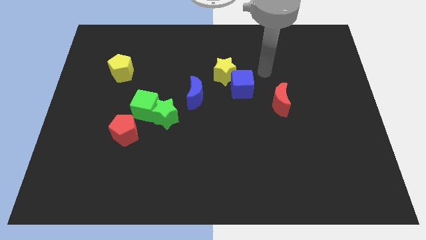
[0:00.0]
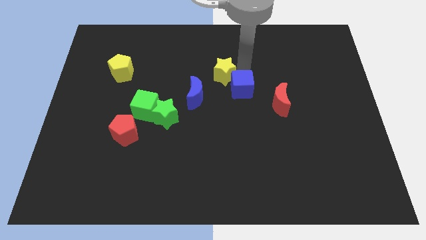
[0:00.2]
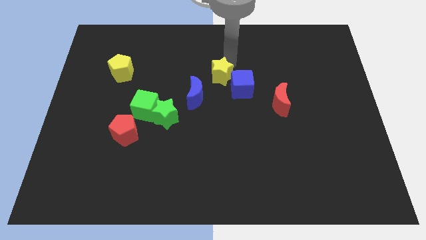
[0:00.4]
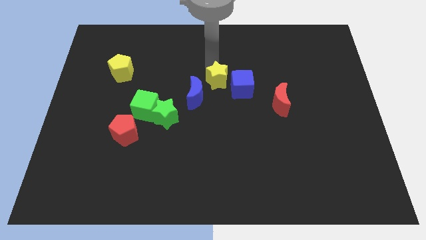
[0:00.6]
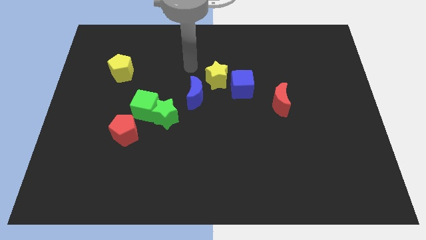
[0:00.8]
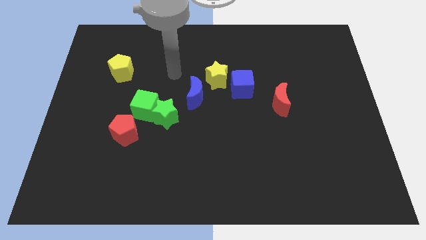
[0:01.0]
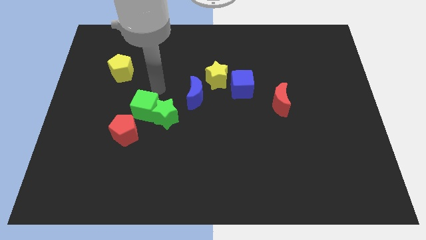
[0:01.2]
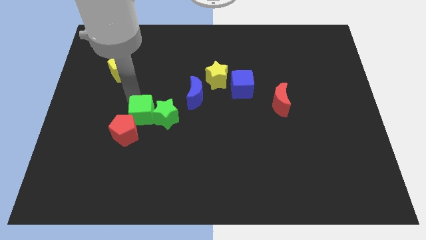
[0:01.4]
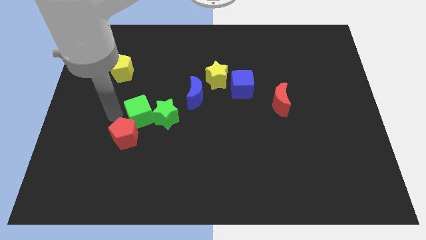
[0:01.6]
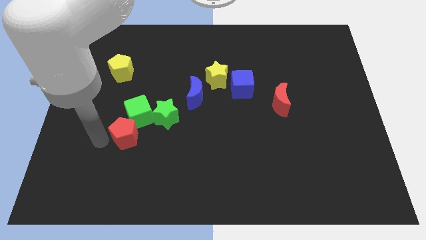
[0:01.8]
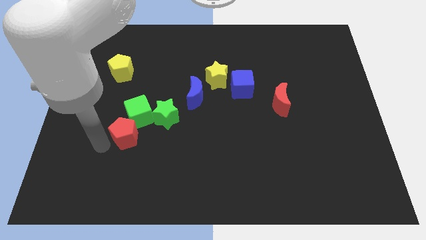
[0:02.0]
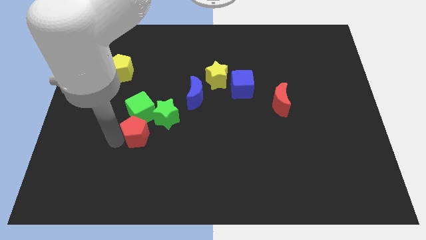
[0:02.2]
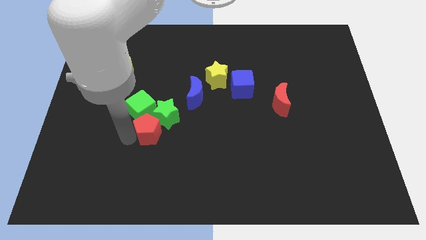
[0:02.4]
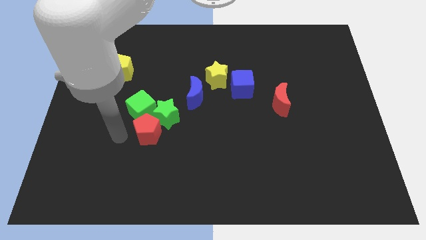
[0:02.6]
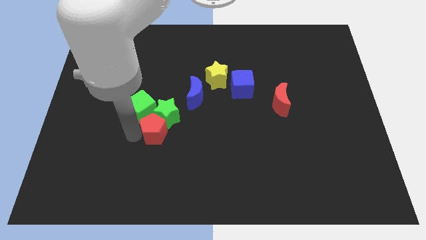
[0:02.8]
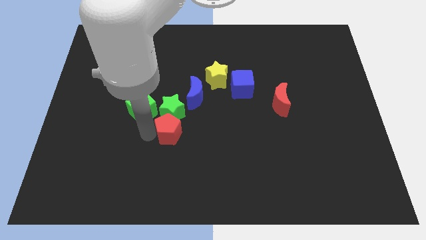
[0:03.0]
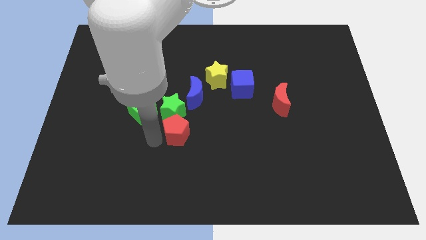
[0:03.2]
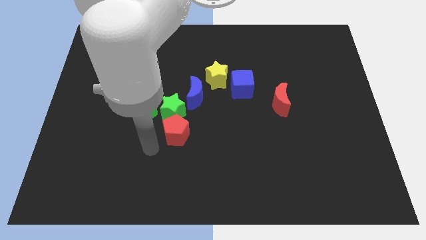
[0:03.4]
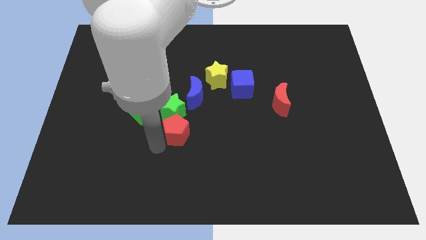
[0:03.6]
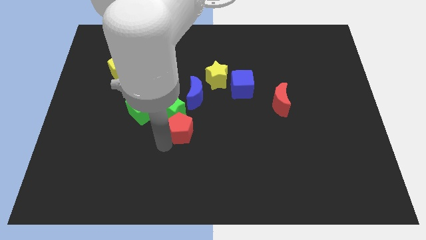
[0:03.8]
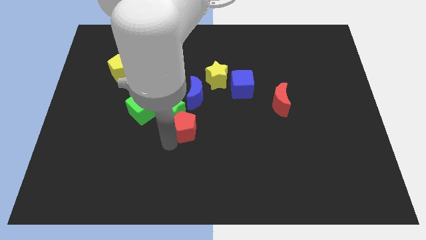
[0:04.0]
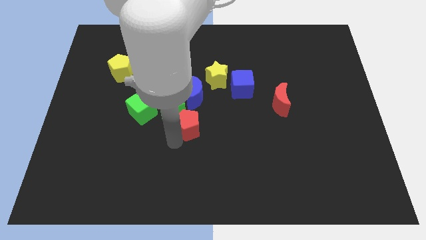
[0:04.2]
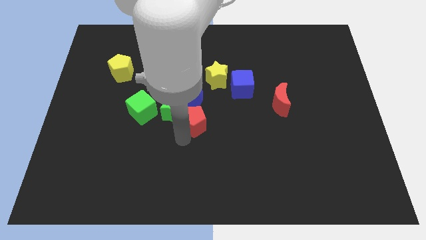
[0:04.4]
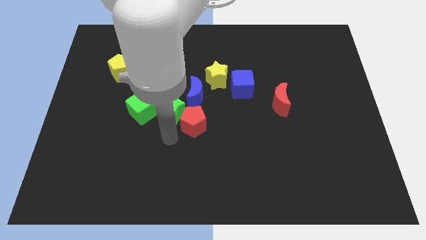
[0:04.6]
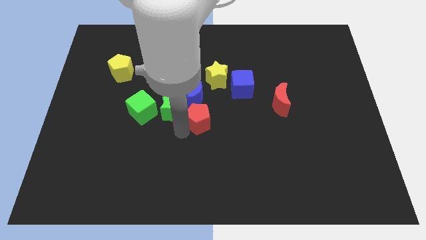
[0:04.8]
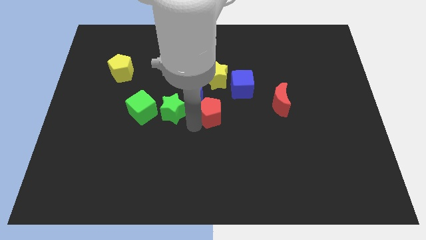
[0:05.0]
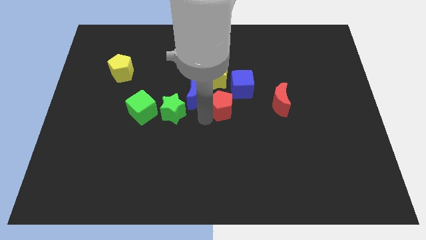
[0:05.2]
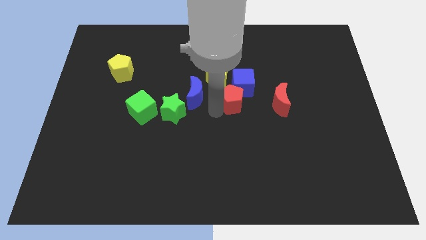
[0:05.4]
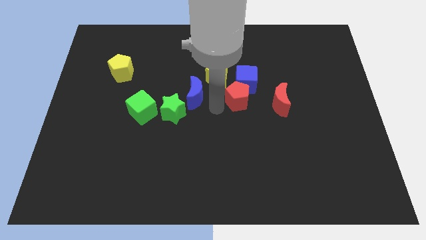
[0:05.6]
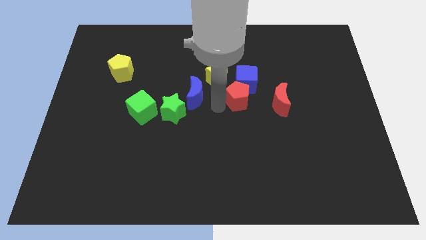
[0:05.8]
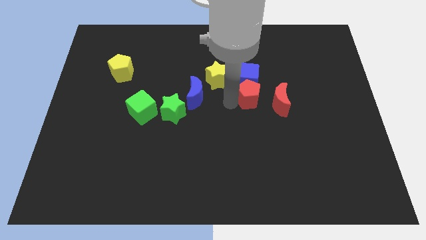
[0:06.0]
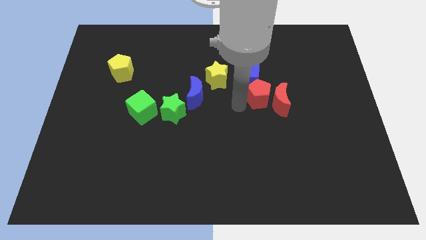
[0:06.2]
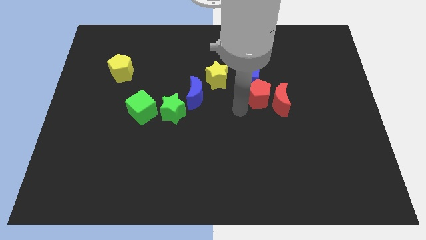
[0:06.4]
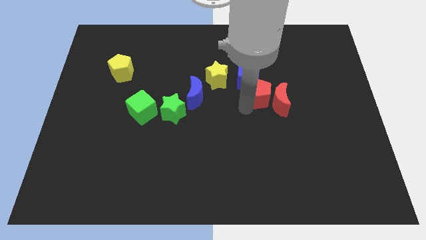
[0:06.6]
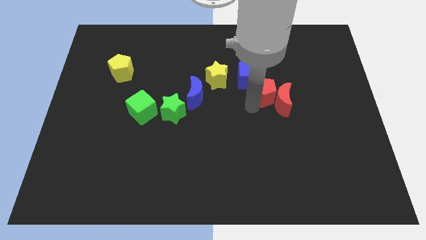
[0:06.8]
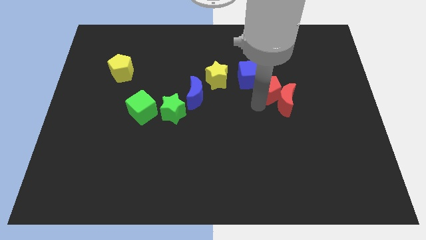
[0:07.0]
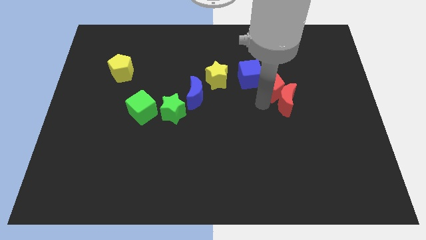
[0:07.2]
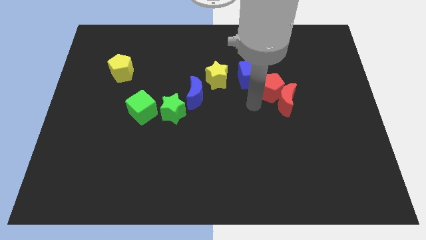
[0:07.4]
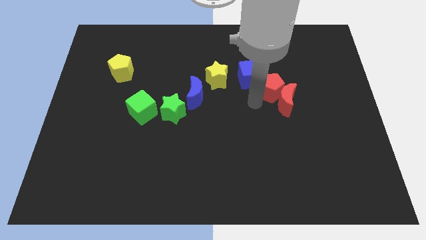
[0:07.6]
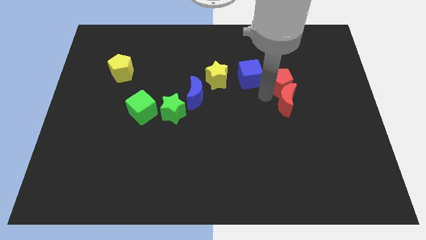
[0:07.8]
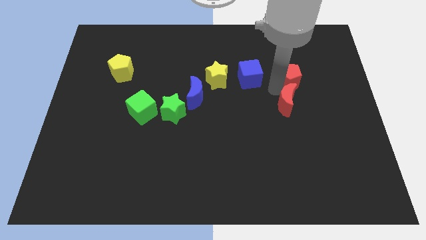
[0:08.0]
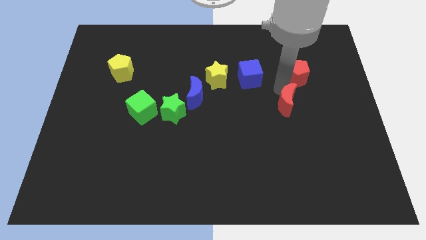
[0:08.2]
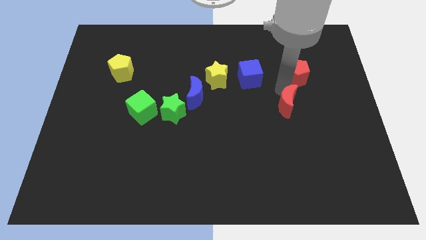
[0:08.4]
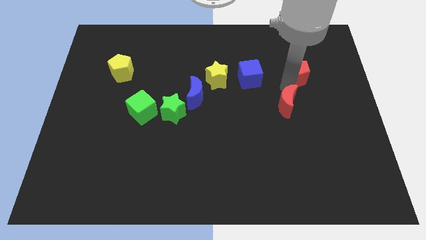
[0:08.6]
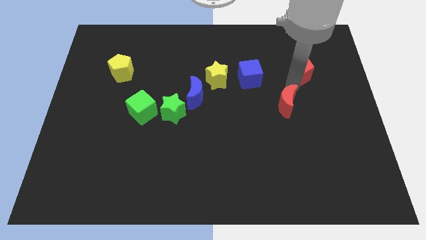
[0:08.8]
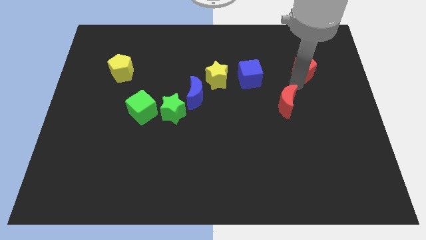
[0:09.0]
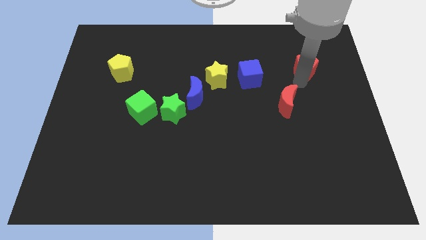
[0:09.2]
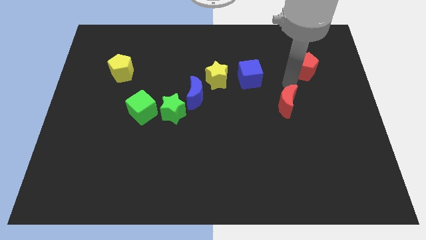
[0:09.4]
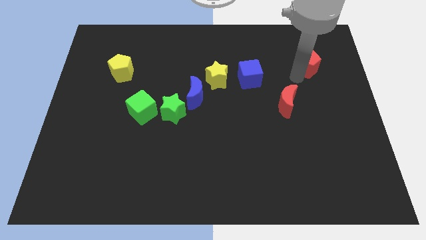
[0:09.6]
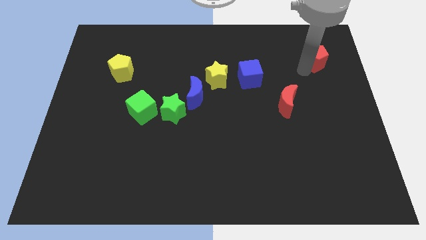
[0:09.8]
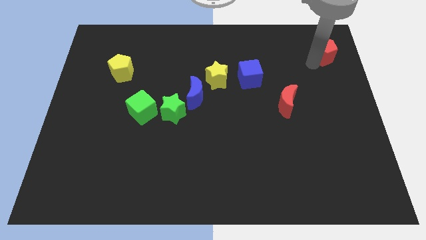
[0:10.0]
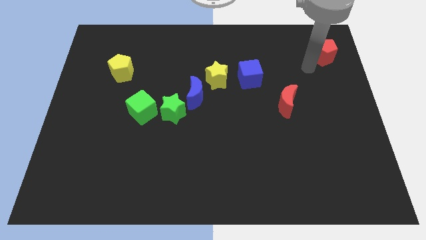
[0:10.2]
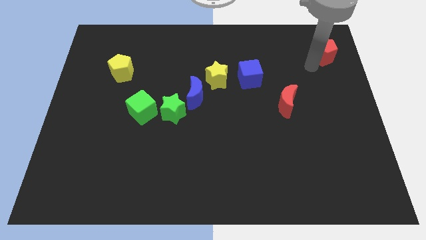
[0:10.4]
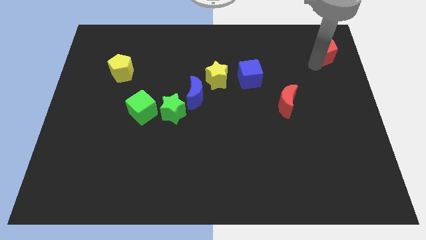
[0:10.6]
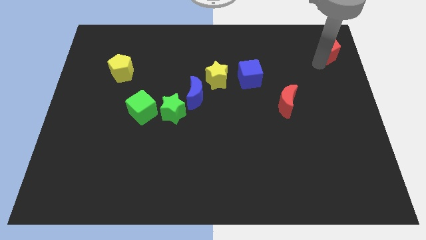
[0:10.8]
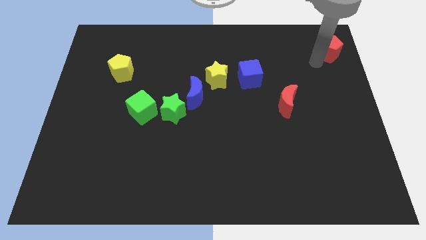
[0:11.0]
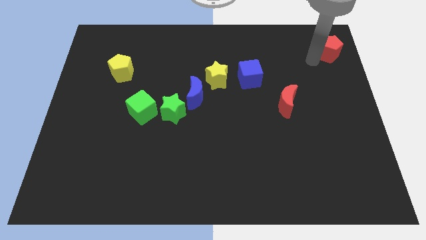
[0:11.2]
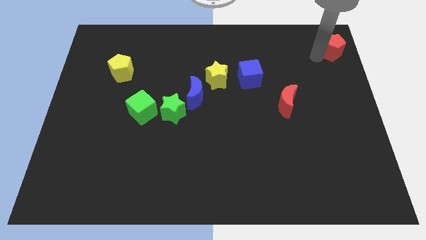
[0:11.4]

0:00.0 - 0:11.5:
slide the red pentagon to the top right corner

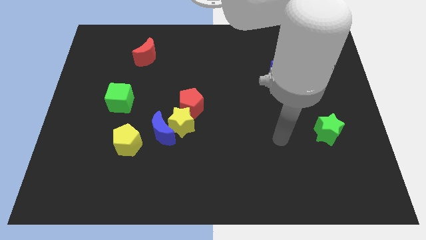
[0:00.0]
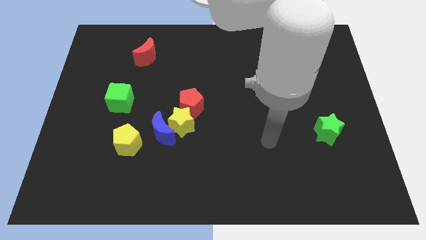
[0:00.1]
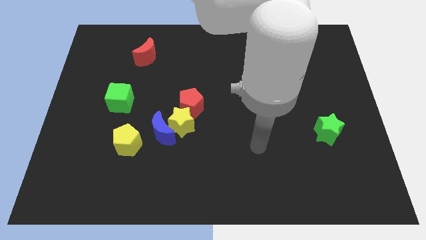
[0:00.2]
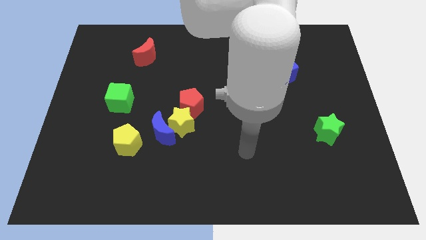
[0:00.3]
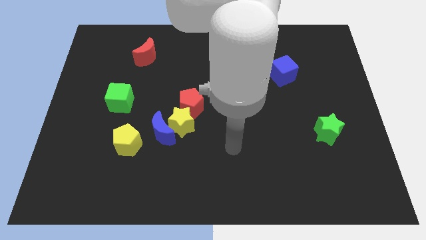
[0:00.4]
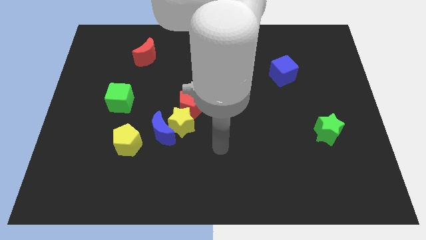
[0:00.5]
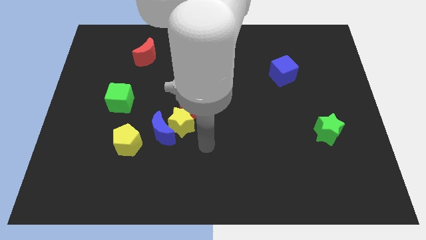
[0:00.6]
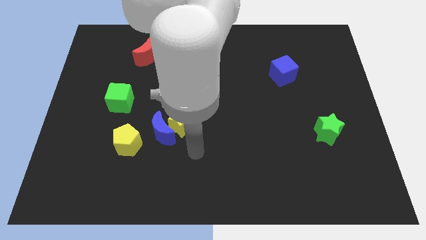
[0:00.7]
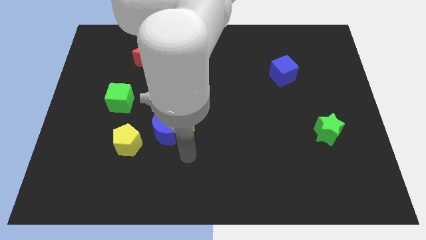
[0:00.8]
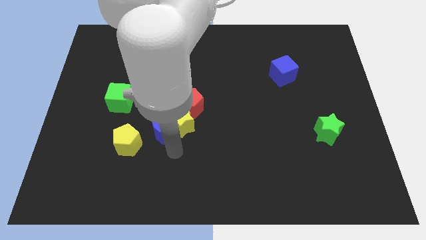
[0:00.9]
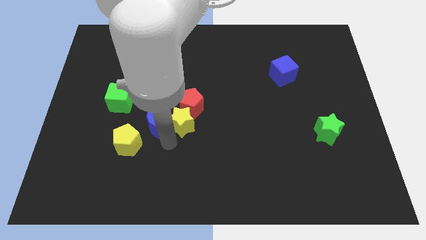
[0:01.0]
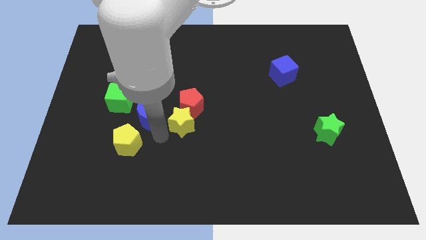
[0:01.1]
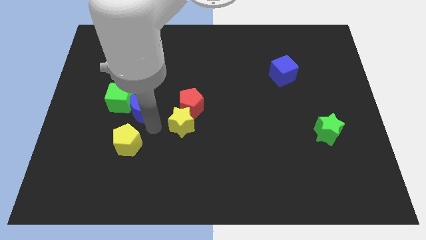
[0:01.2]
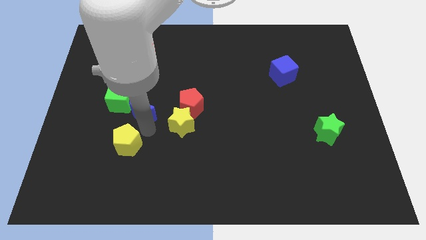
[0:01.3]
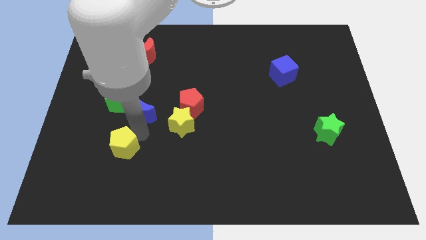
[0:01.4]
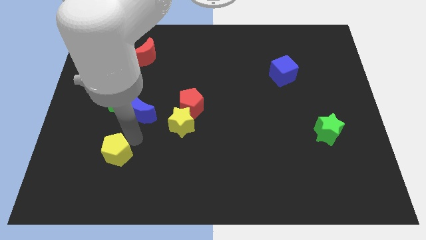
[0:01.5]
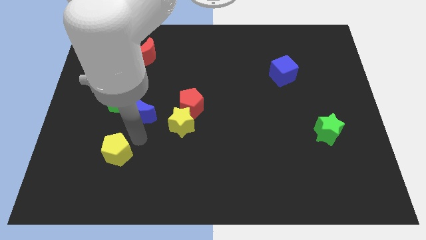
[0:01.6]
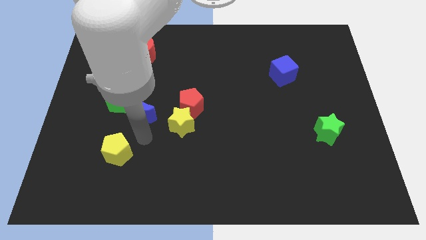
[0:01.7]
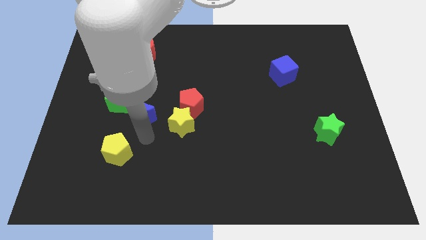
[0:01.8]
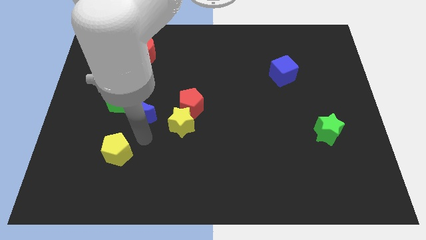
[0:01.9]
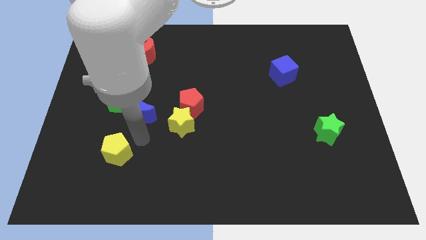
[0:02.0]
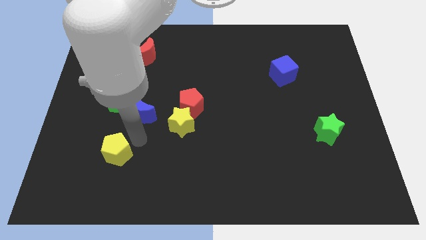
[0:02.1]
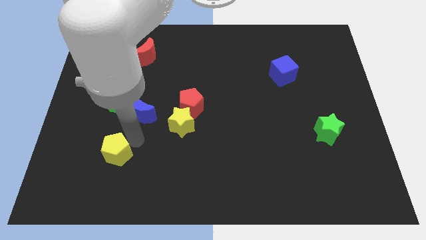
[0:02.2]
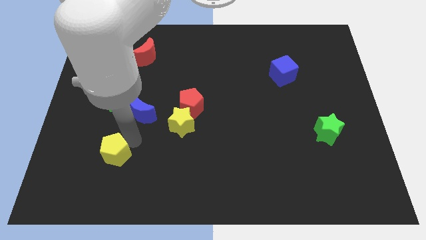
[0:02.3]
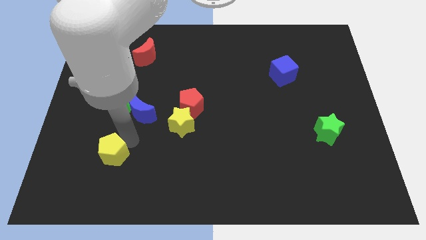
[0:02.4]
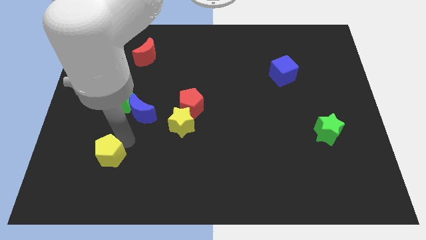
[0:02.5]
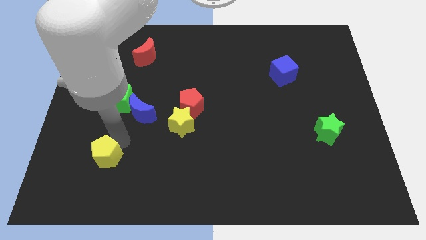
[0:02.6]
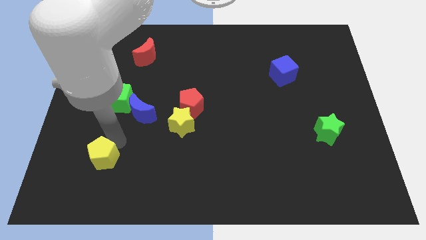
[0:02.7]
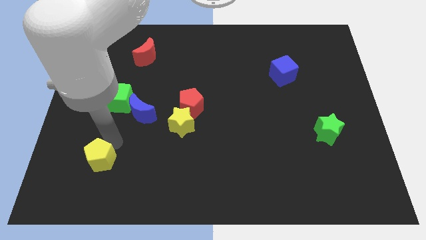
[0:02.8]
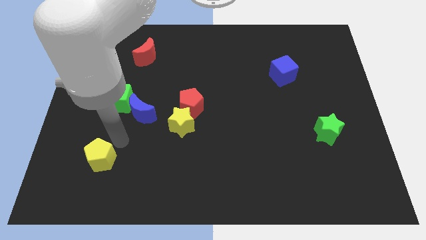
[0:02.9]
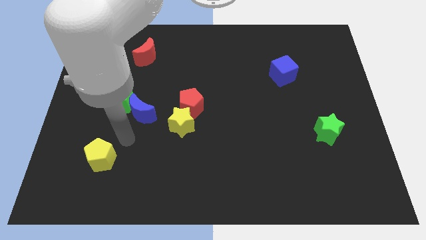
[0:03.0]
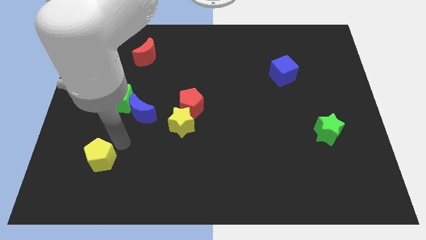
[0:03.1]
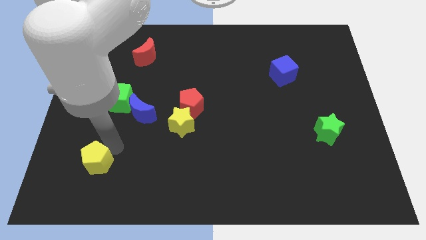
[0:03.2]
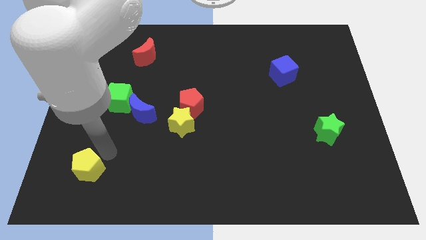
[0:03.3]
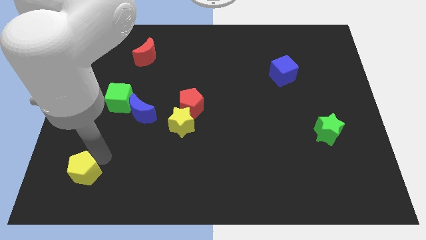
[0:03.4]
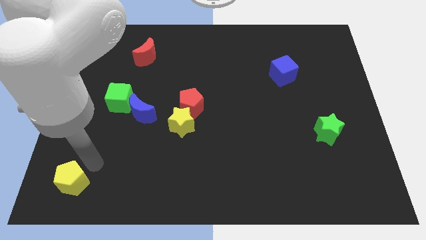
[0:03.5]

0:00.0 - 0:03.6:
move the yellow pentagon to the bottom left corner
